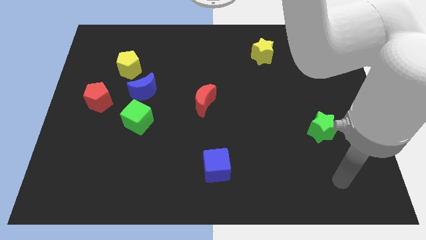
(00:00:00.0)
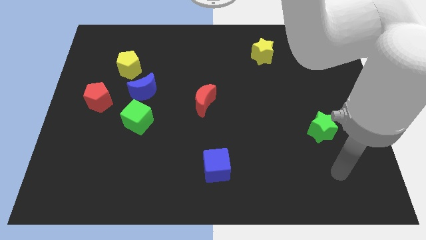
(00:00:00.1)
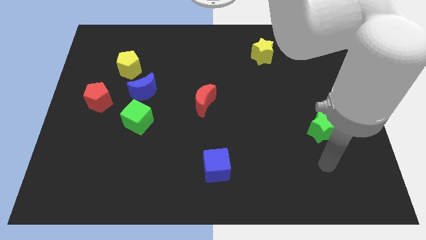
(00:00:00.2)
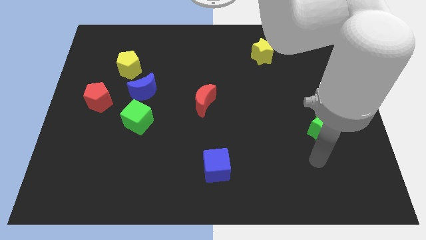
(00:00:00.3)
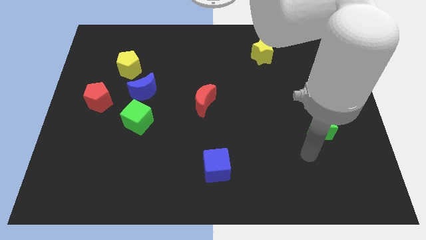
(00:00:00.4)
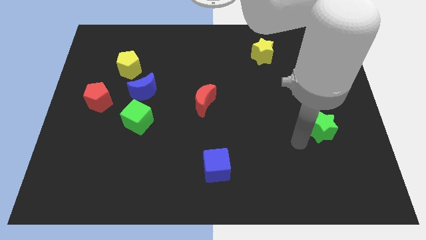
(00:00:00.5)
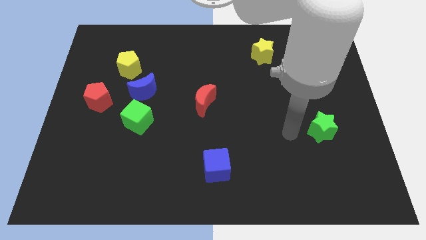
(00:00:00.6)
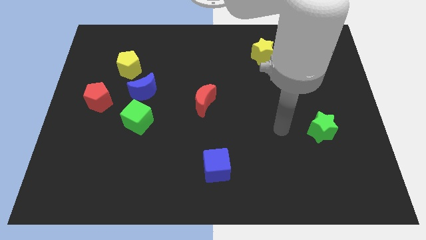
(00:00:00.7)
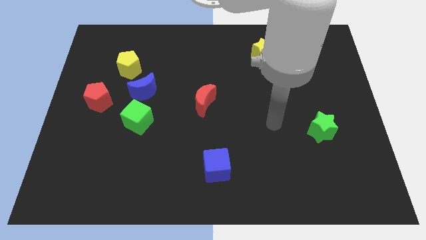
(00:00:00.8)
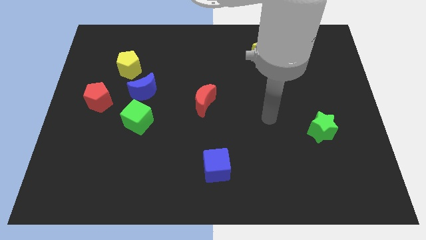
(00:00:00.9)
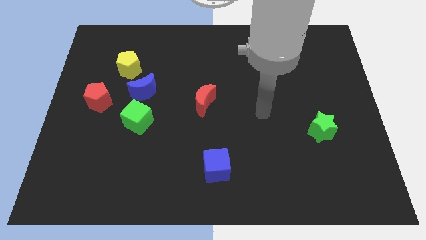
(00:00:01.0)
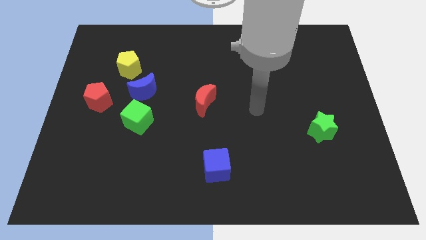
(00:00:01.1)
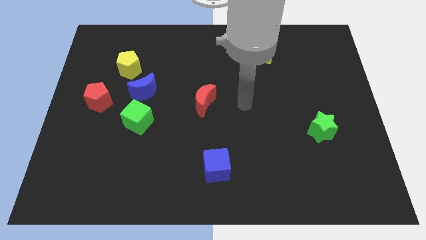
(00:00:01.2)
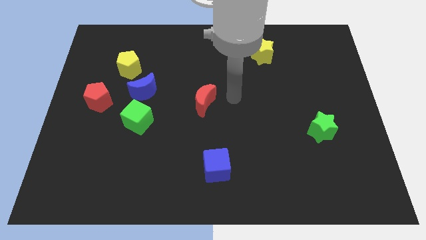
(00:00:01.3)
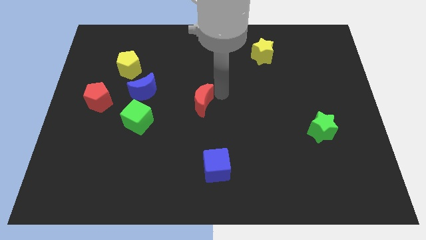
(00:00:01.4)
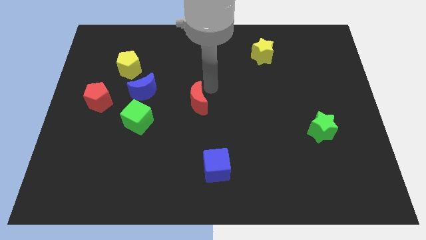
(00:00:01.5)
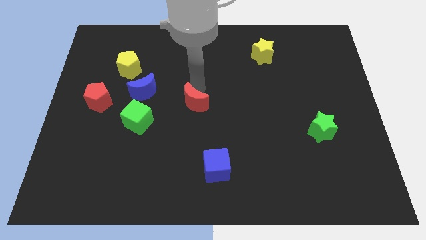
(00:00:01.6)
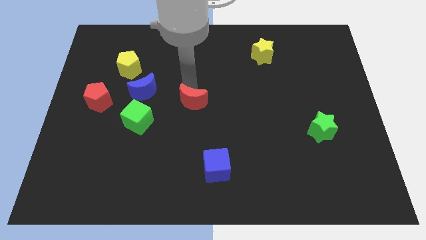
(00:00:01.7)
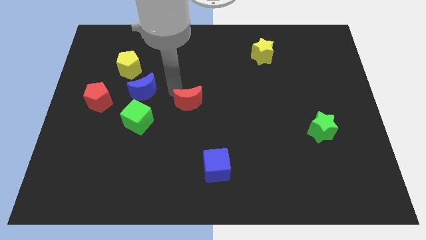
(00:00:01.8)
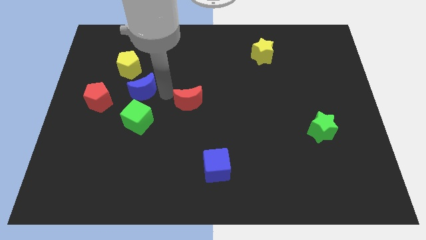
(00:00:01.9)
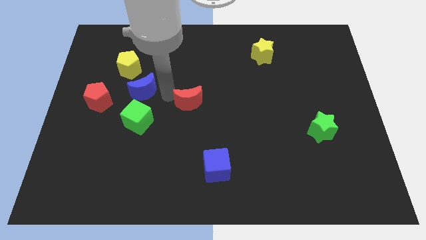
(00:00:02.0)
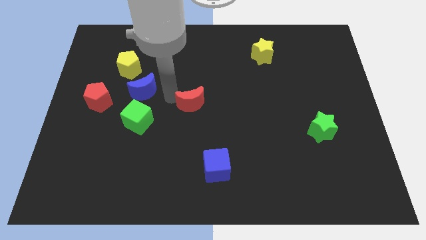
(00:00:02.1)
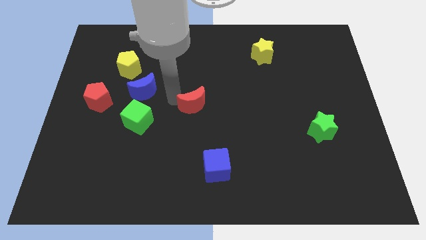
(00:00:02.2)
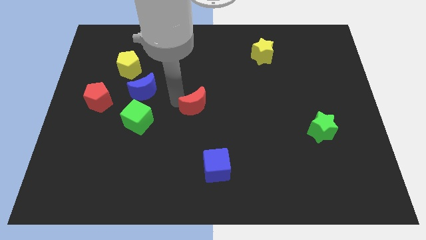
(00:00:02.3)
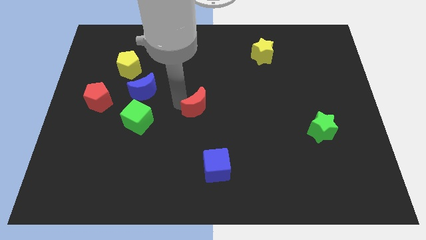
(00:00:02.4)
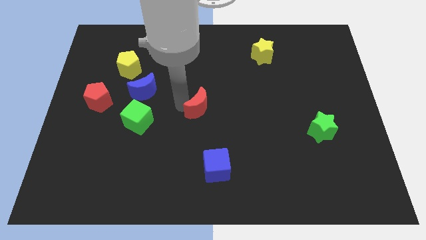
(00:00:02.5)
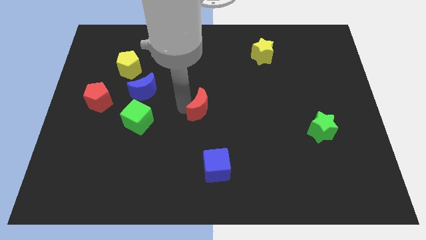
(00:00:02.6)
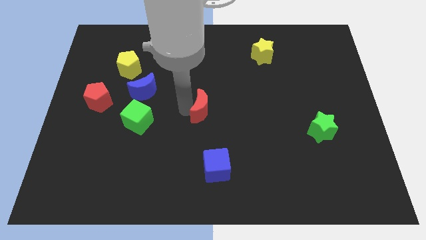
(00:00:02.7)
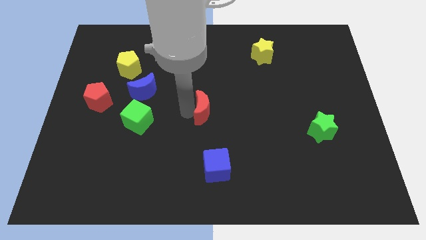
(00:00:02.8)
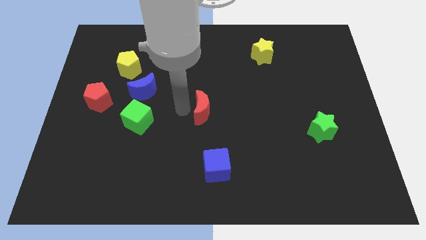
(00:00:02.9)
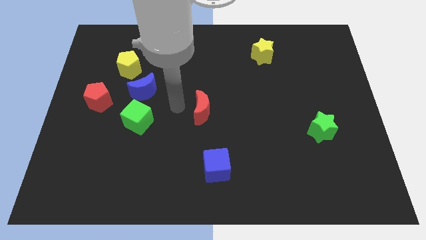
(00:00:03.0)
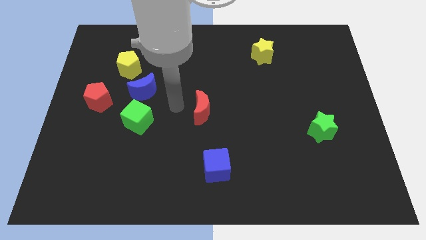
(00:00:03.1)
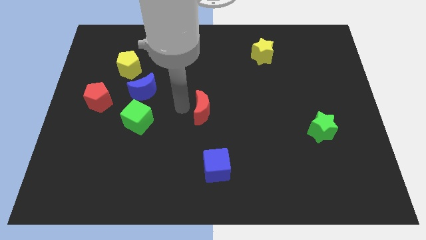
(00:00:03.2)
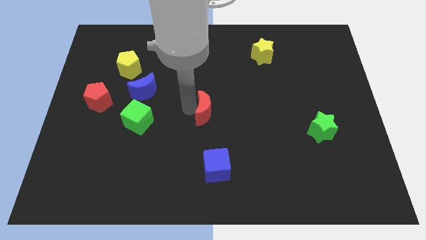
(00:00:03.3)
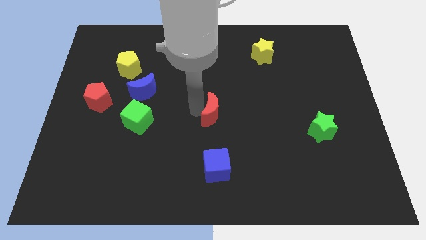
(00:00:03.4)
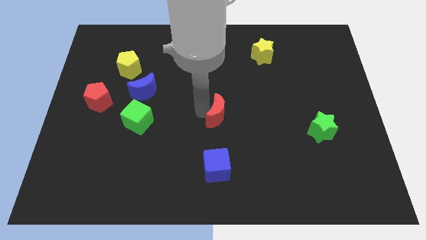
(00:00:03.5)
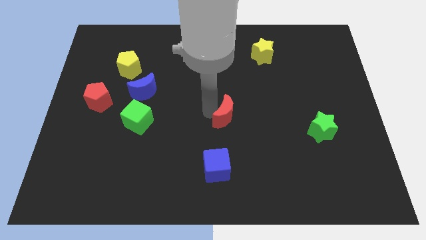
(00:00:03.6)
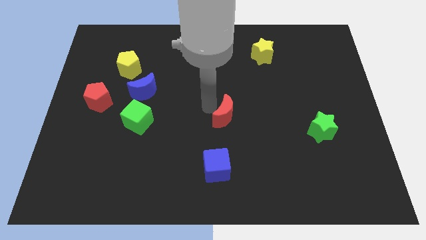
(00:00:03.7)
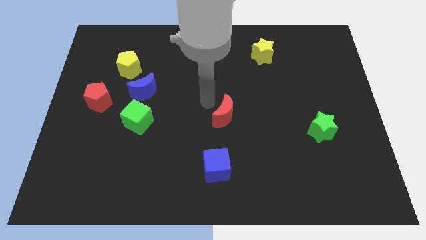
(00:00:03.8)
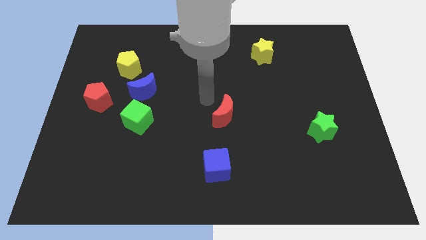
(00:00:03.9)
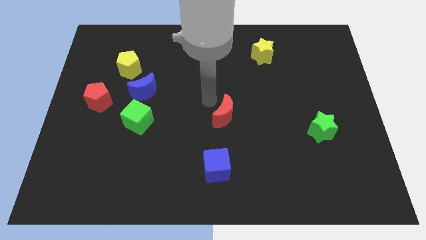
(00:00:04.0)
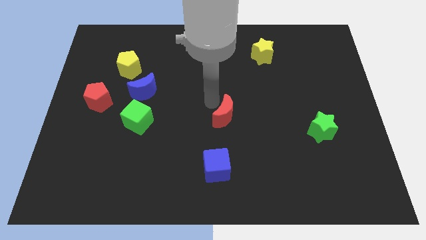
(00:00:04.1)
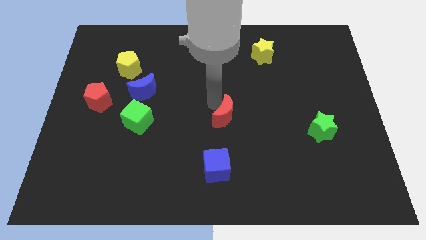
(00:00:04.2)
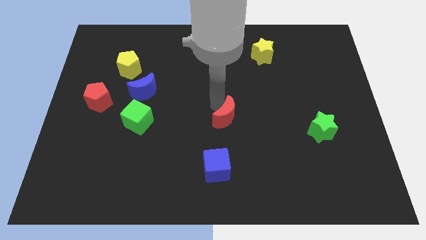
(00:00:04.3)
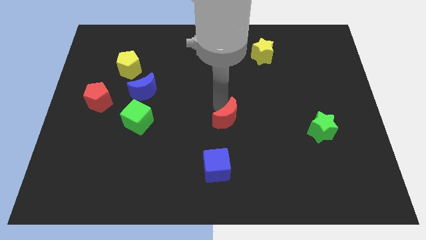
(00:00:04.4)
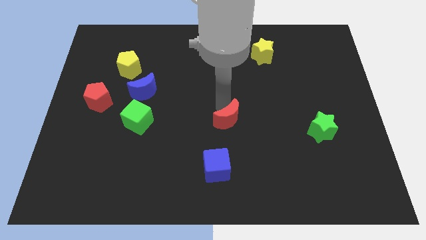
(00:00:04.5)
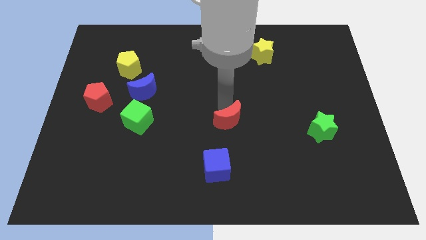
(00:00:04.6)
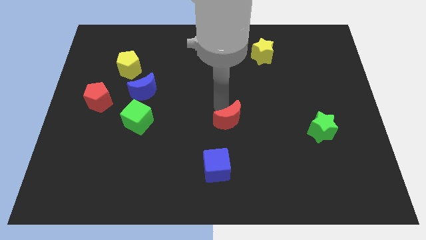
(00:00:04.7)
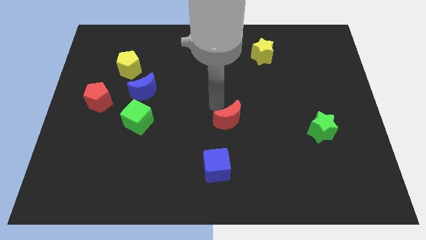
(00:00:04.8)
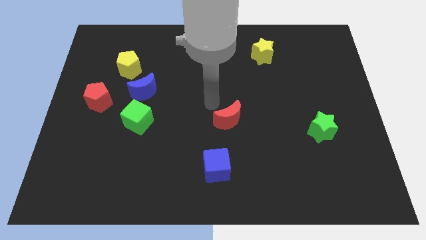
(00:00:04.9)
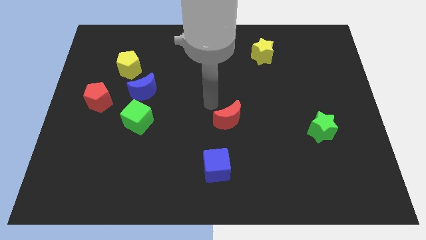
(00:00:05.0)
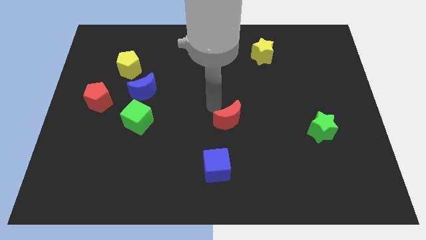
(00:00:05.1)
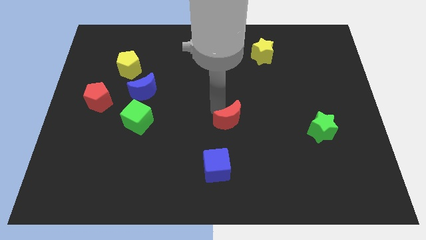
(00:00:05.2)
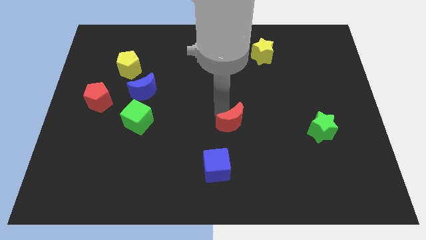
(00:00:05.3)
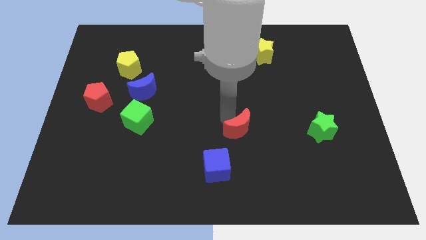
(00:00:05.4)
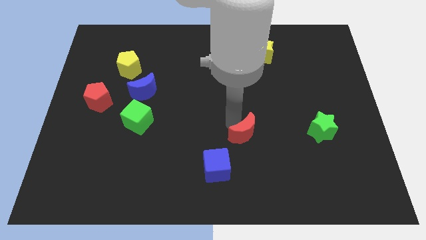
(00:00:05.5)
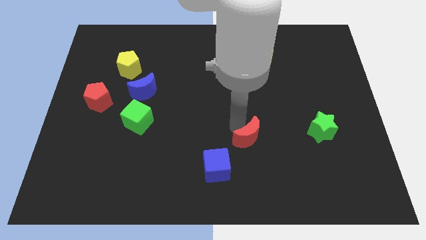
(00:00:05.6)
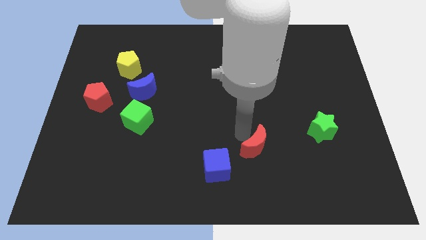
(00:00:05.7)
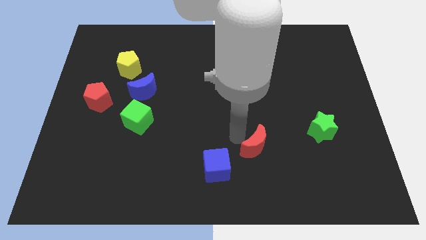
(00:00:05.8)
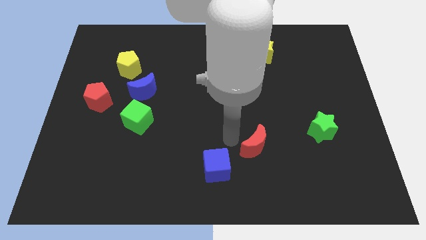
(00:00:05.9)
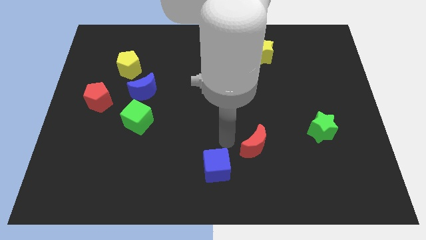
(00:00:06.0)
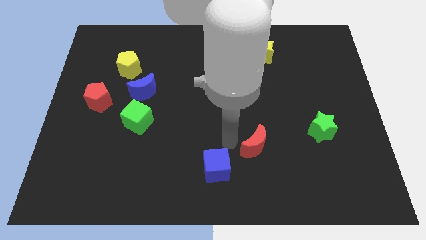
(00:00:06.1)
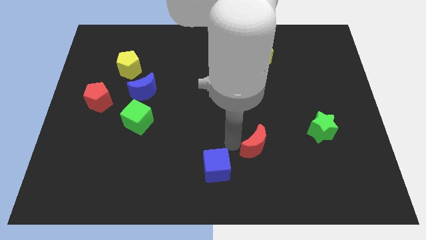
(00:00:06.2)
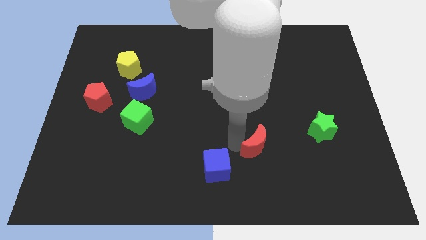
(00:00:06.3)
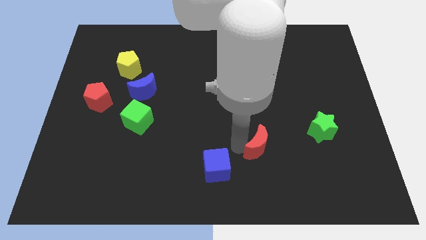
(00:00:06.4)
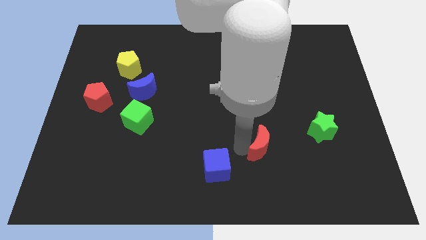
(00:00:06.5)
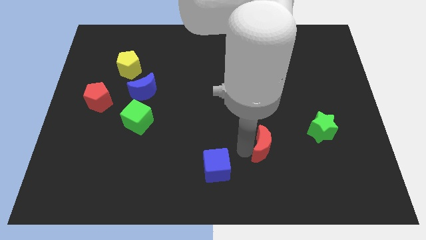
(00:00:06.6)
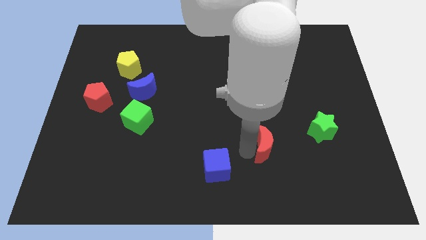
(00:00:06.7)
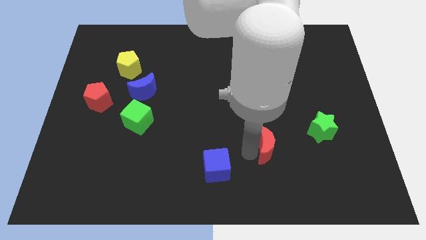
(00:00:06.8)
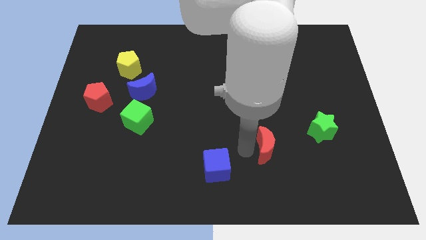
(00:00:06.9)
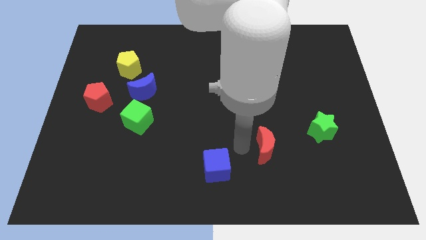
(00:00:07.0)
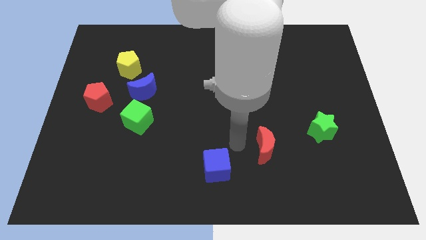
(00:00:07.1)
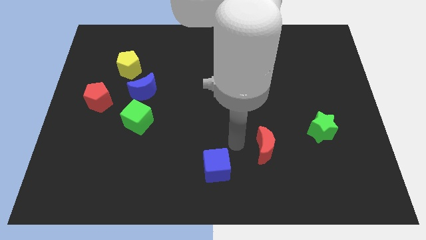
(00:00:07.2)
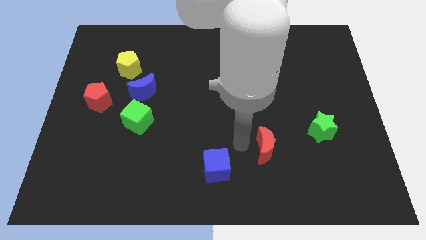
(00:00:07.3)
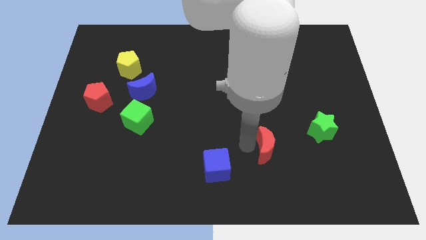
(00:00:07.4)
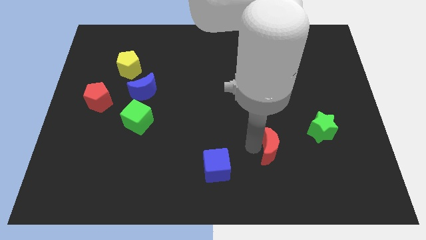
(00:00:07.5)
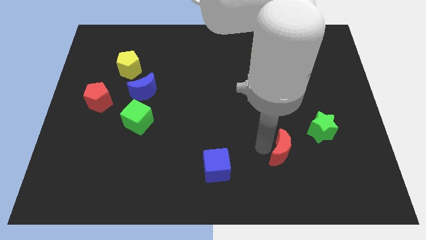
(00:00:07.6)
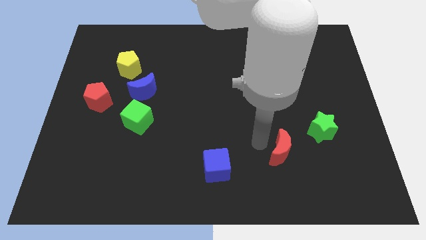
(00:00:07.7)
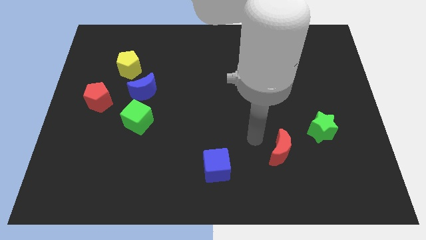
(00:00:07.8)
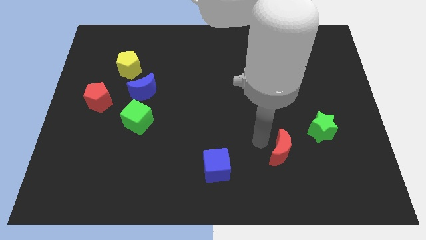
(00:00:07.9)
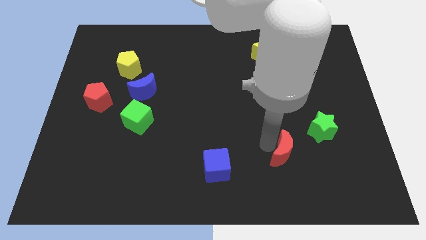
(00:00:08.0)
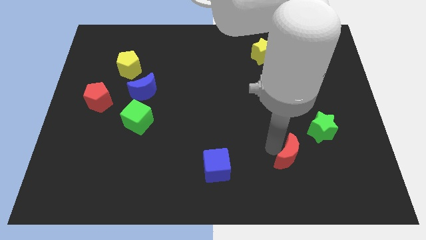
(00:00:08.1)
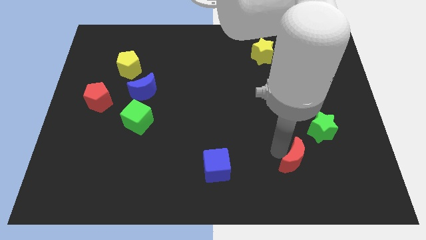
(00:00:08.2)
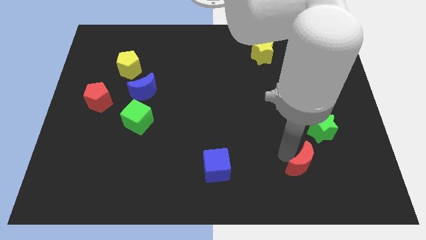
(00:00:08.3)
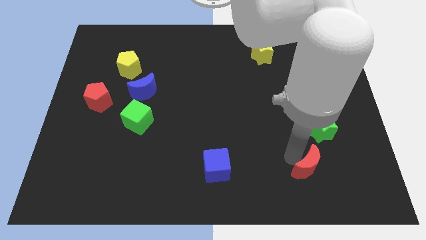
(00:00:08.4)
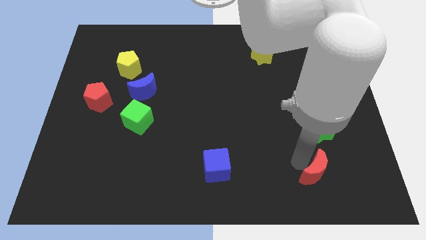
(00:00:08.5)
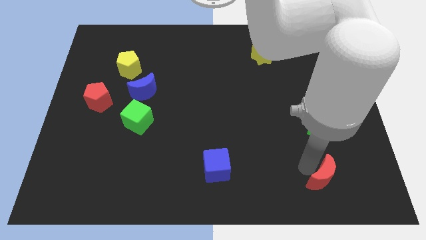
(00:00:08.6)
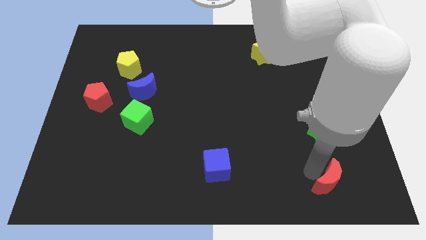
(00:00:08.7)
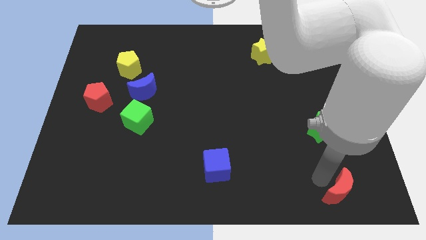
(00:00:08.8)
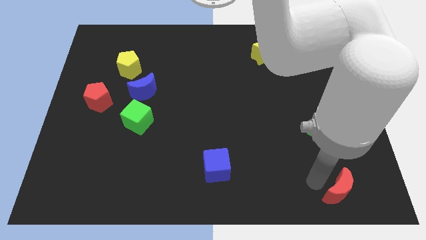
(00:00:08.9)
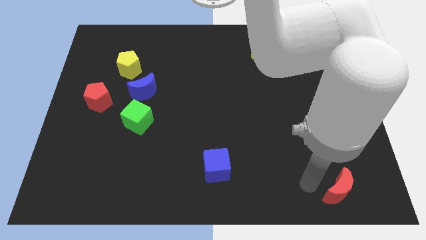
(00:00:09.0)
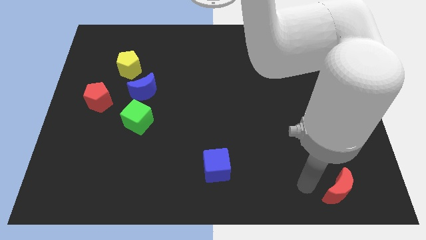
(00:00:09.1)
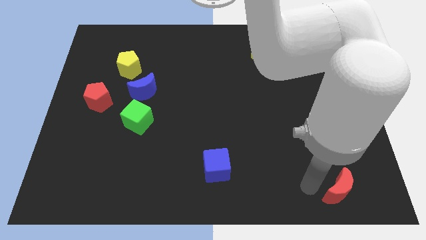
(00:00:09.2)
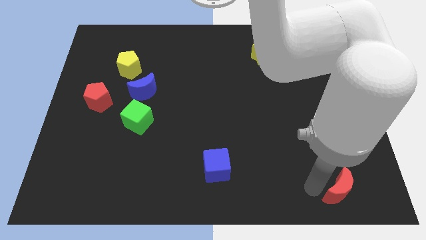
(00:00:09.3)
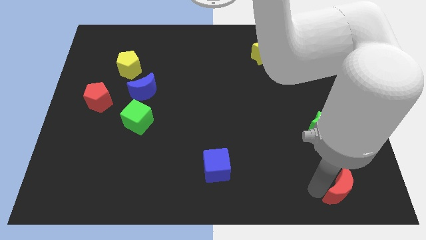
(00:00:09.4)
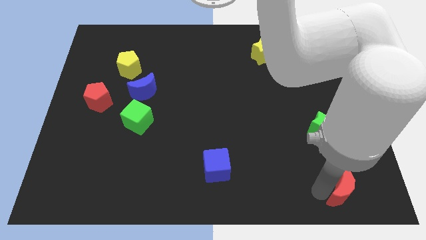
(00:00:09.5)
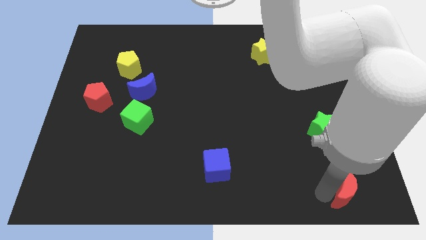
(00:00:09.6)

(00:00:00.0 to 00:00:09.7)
put the red moon to the lower right corner
